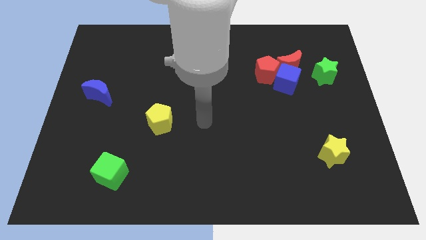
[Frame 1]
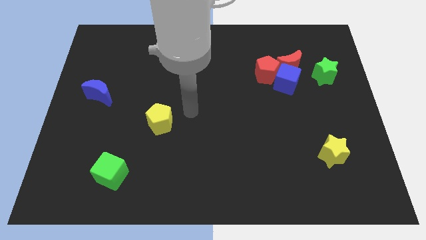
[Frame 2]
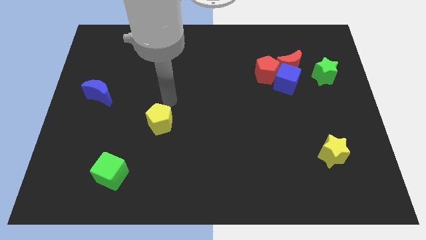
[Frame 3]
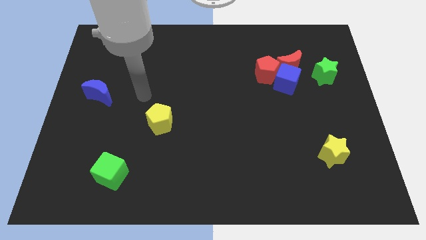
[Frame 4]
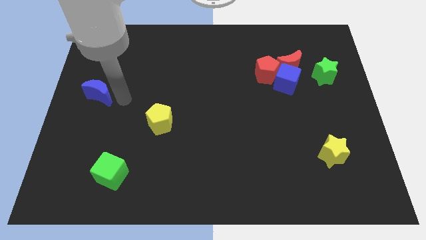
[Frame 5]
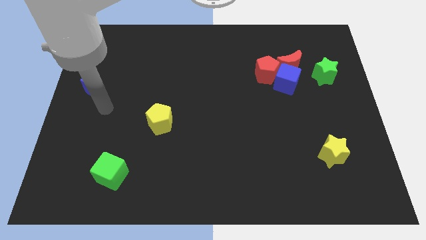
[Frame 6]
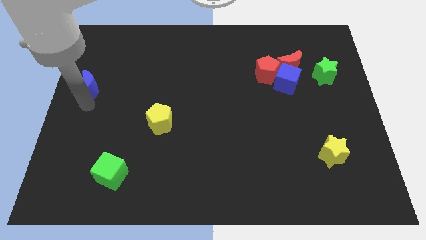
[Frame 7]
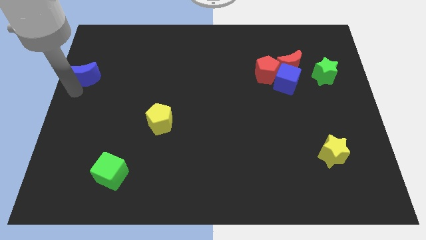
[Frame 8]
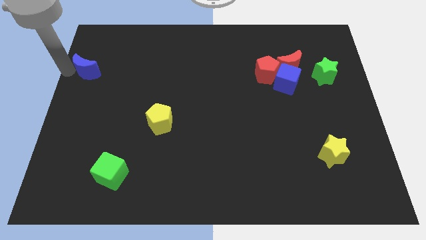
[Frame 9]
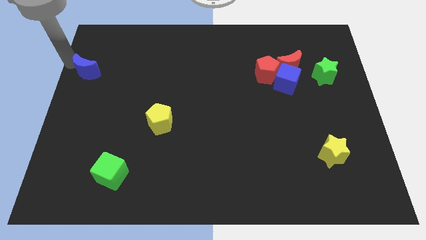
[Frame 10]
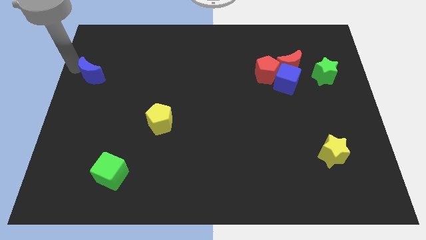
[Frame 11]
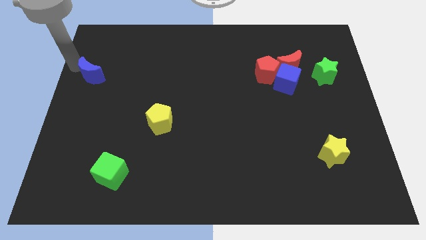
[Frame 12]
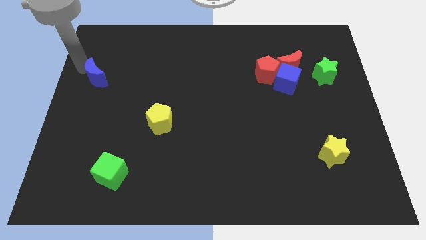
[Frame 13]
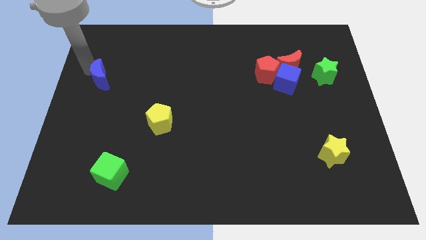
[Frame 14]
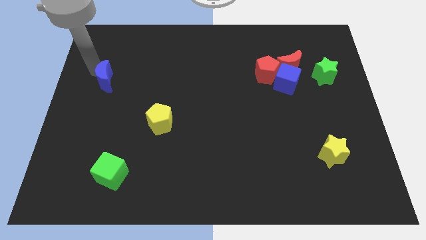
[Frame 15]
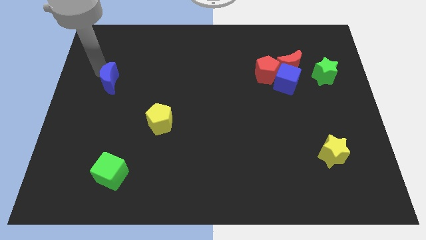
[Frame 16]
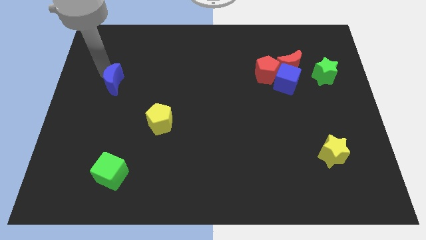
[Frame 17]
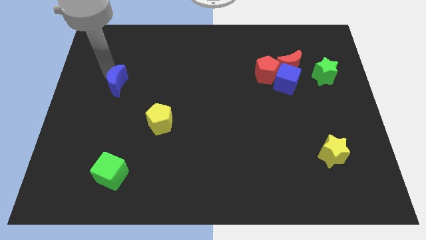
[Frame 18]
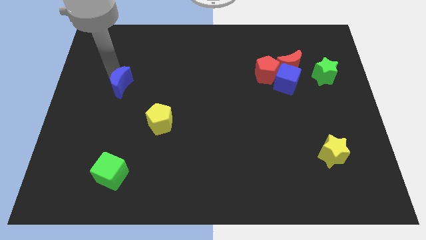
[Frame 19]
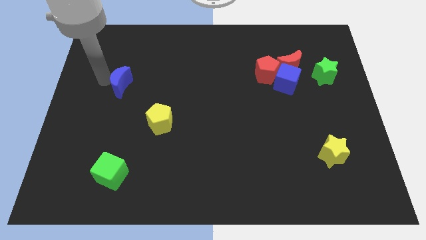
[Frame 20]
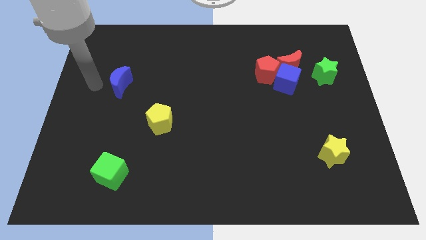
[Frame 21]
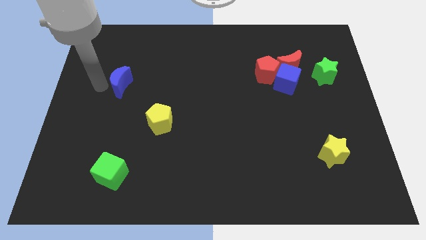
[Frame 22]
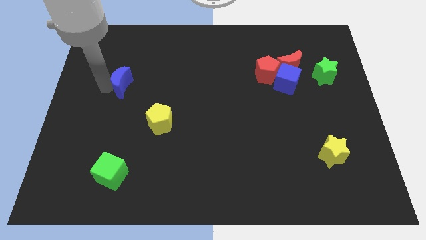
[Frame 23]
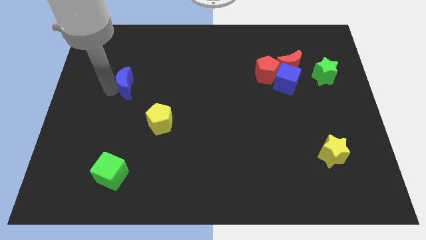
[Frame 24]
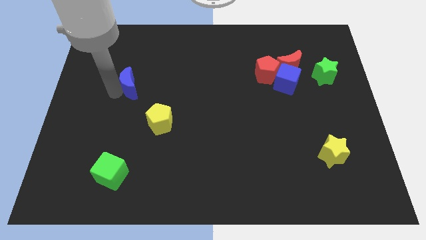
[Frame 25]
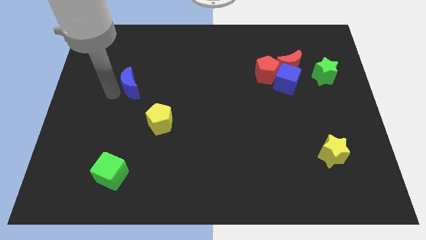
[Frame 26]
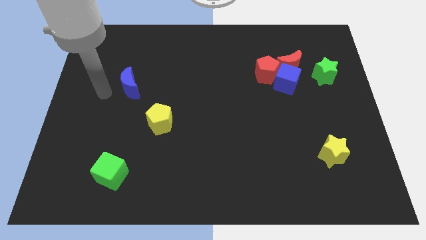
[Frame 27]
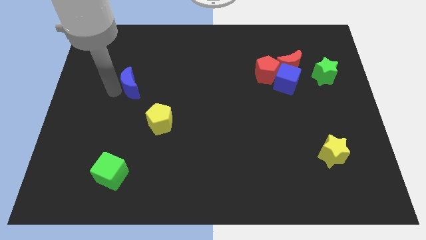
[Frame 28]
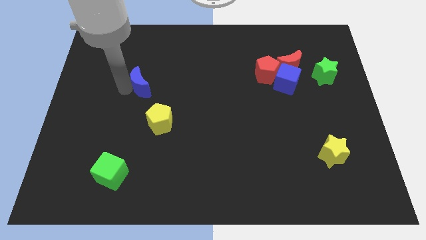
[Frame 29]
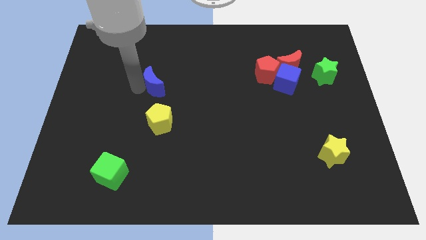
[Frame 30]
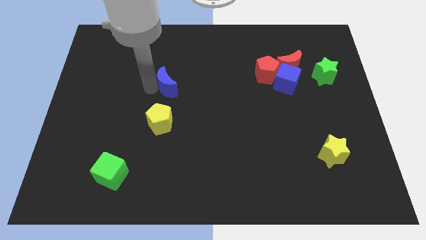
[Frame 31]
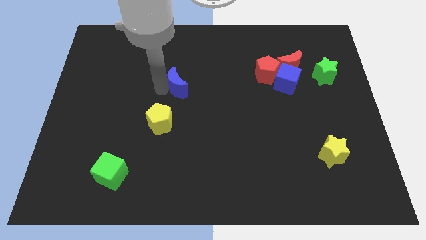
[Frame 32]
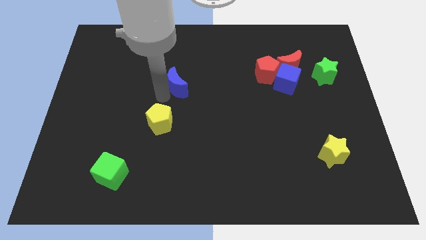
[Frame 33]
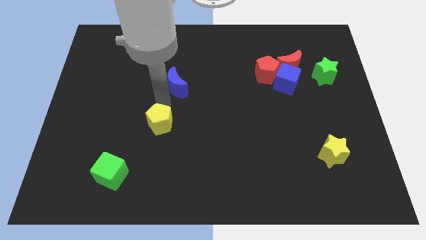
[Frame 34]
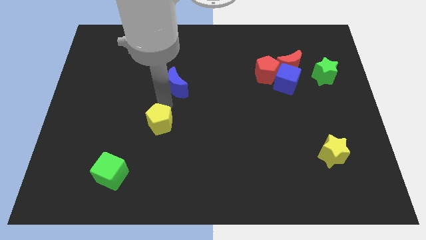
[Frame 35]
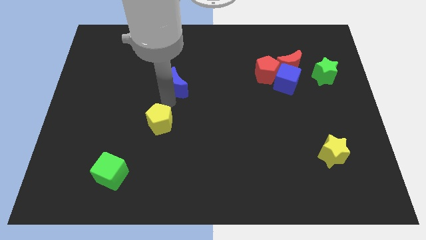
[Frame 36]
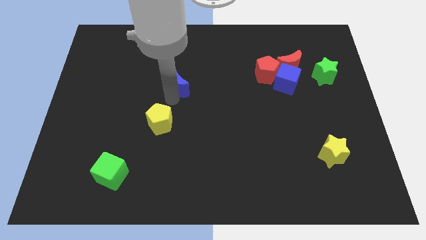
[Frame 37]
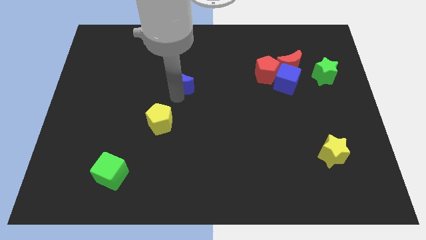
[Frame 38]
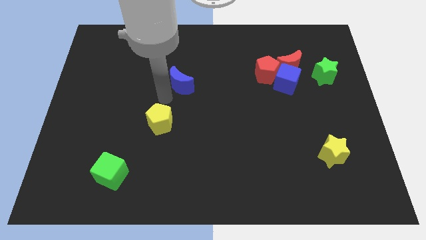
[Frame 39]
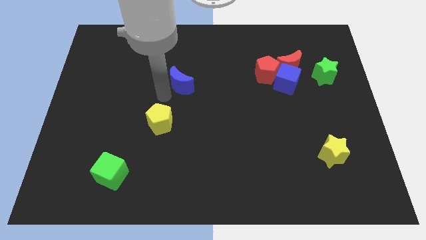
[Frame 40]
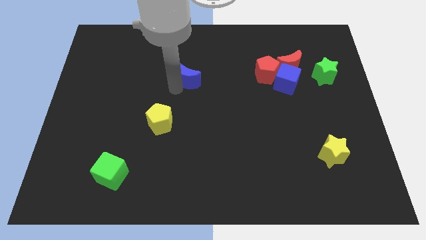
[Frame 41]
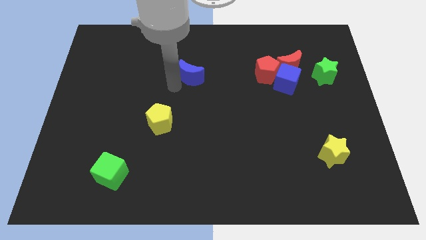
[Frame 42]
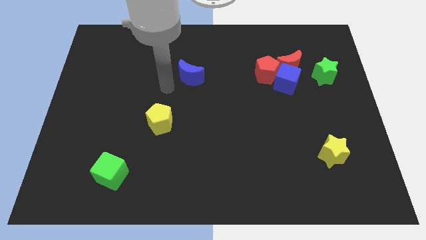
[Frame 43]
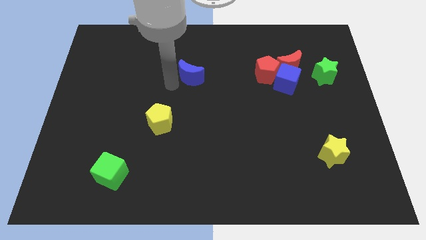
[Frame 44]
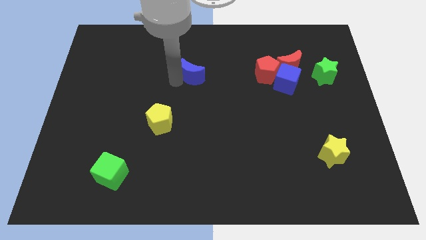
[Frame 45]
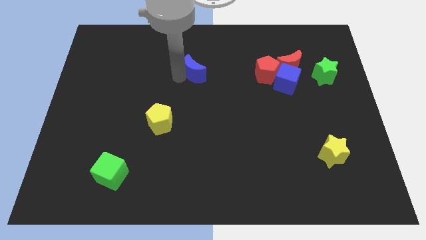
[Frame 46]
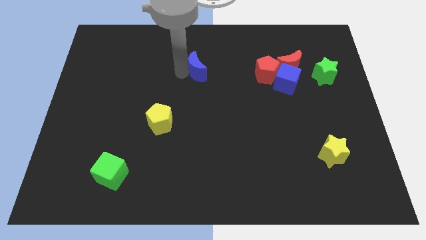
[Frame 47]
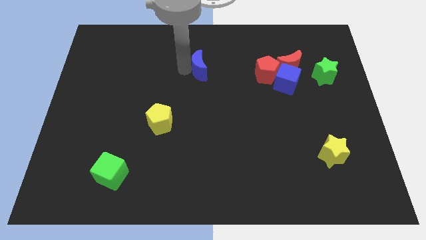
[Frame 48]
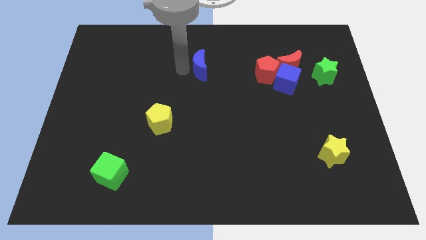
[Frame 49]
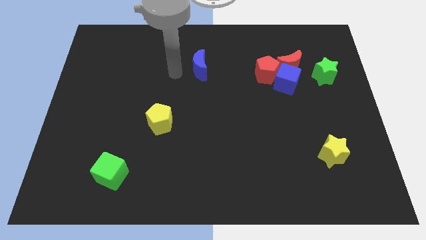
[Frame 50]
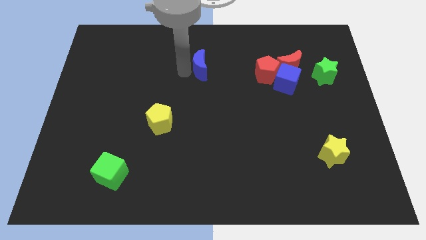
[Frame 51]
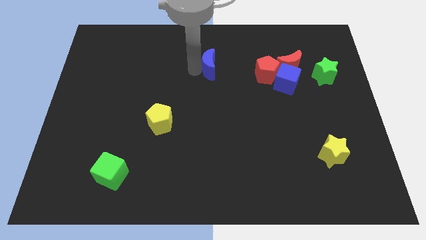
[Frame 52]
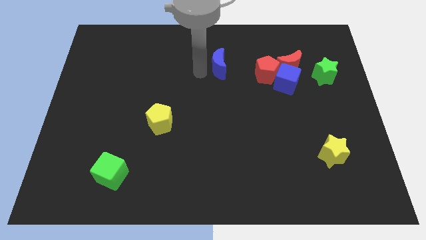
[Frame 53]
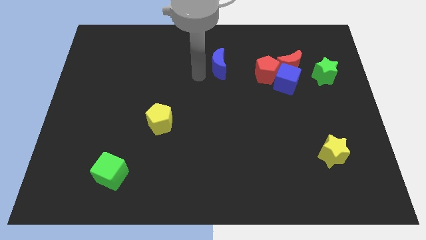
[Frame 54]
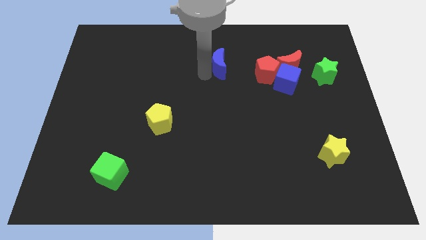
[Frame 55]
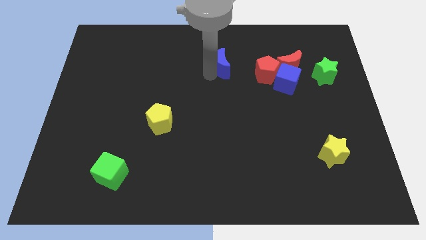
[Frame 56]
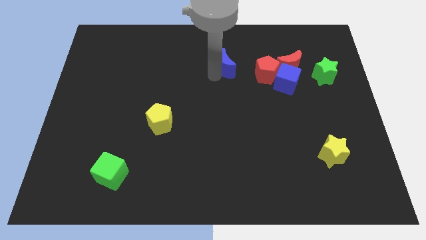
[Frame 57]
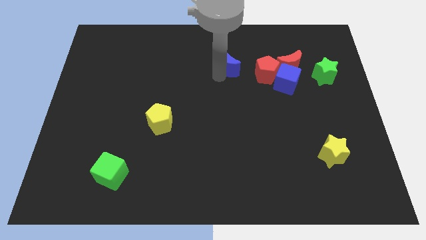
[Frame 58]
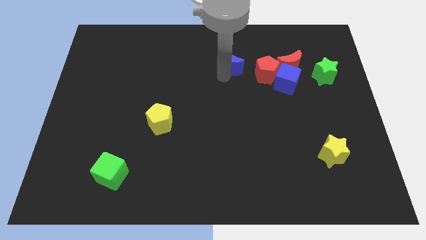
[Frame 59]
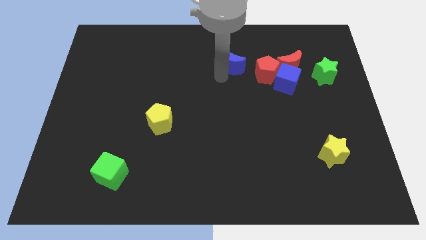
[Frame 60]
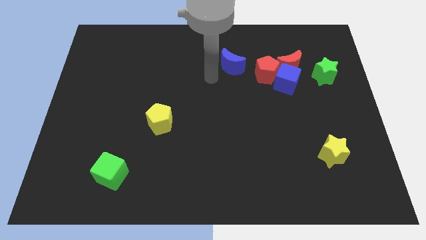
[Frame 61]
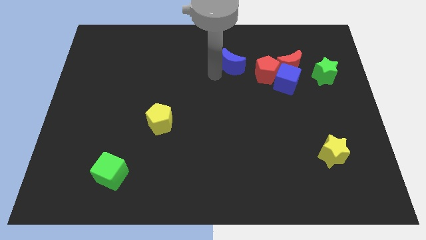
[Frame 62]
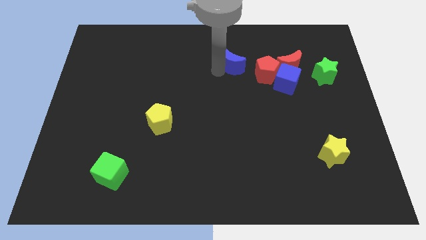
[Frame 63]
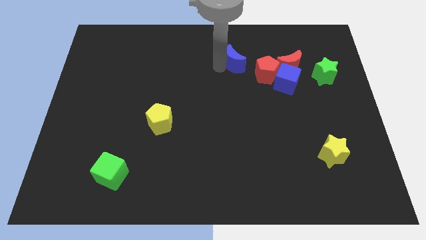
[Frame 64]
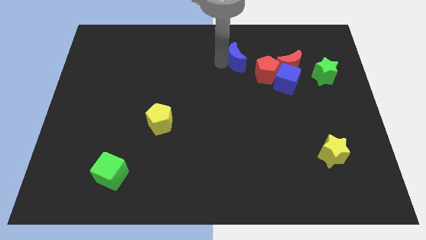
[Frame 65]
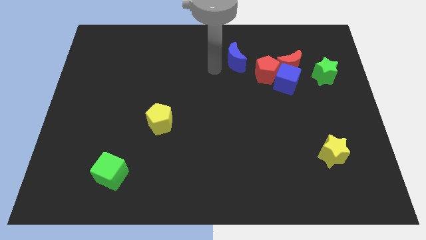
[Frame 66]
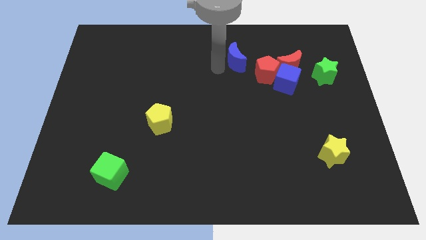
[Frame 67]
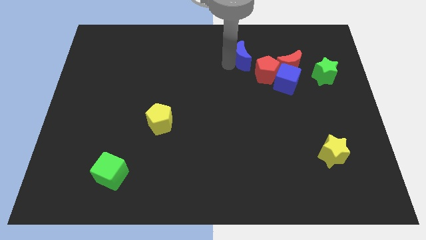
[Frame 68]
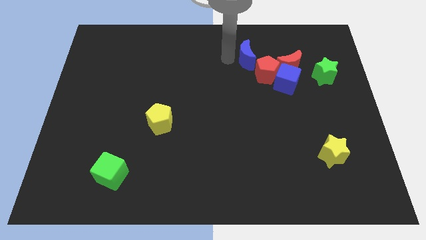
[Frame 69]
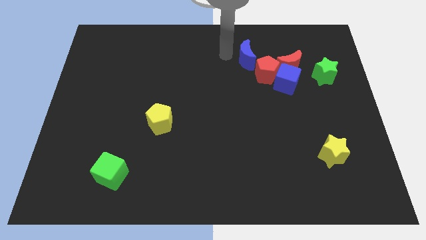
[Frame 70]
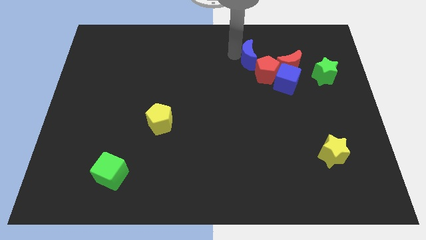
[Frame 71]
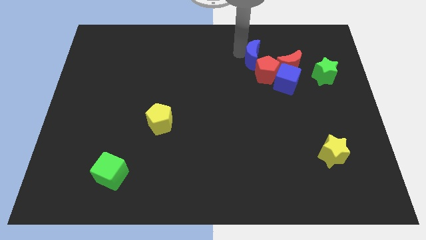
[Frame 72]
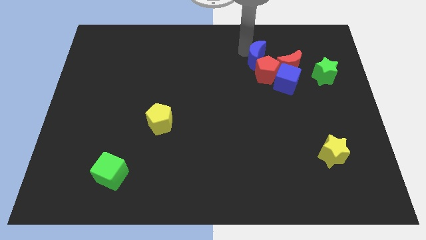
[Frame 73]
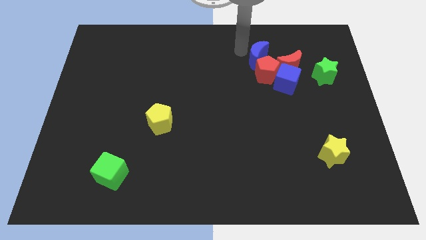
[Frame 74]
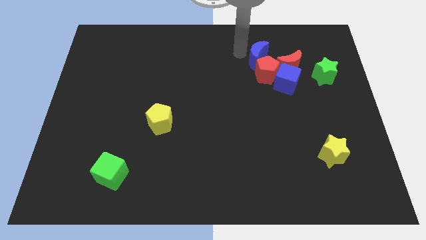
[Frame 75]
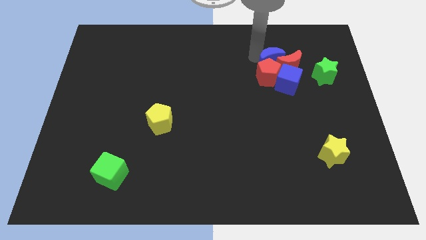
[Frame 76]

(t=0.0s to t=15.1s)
slide the blue moon towards the red moon

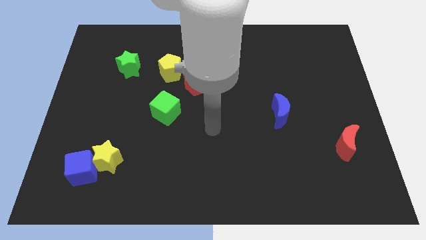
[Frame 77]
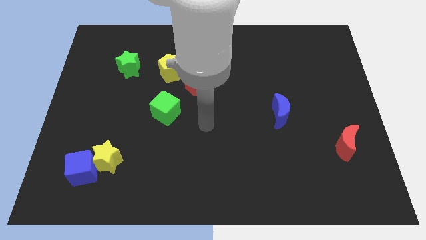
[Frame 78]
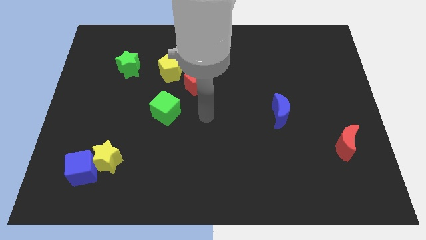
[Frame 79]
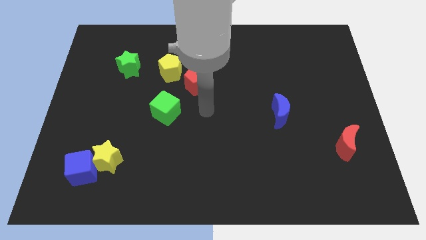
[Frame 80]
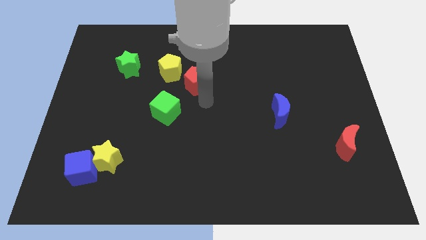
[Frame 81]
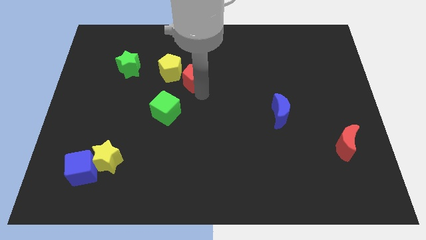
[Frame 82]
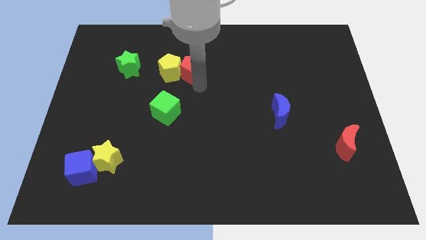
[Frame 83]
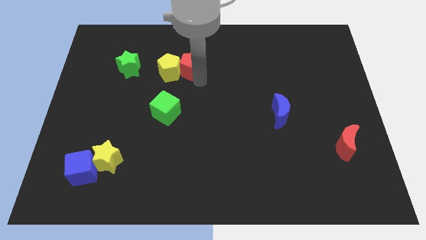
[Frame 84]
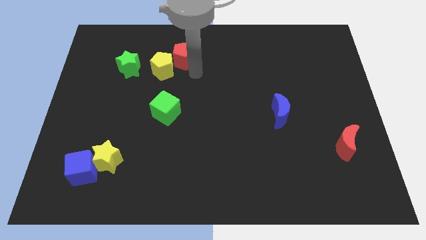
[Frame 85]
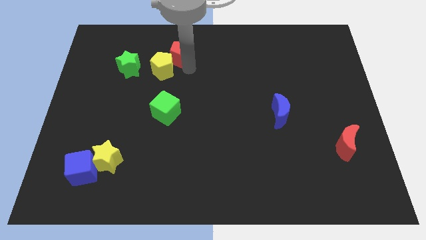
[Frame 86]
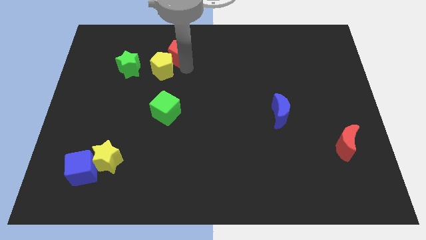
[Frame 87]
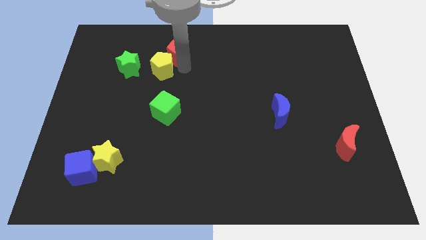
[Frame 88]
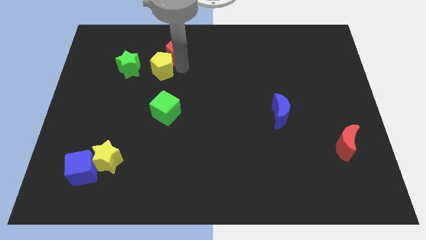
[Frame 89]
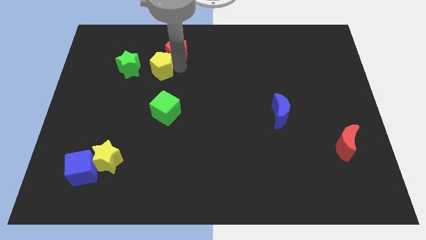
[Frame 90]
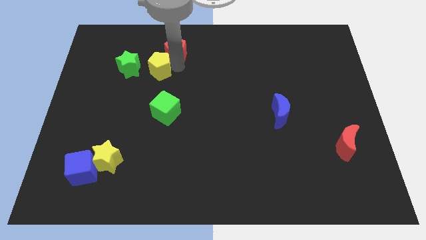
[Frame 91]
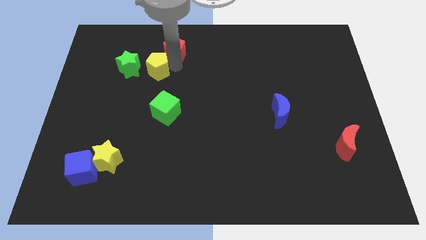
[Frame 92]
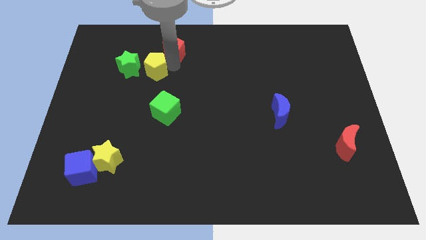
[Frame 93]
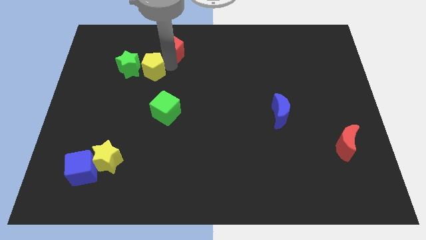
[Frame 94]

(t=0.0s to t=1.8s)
put the yellow pentagon towards the green star
